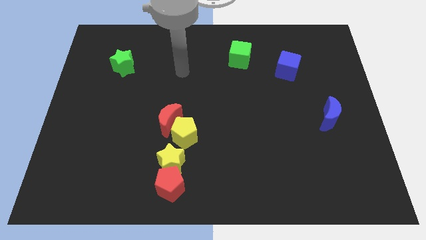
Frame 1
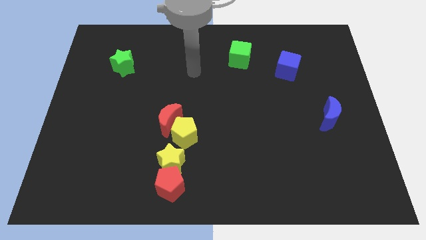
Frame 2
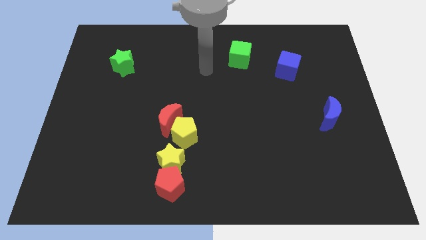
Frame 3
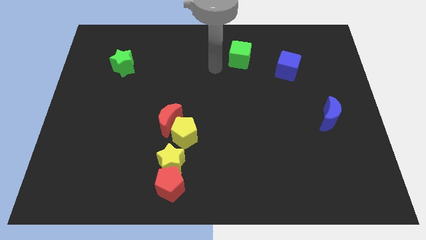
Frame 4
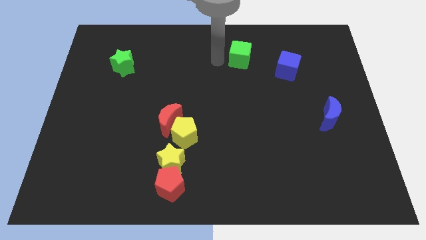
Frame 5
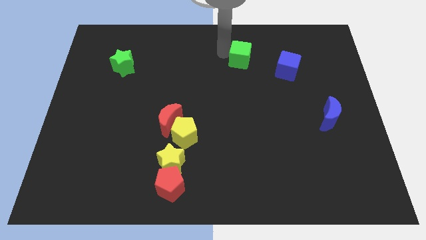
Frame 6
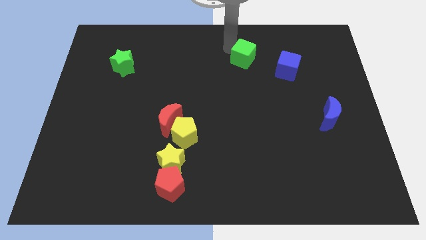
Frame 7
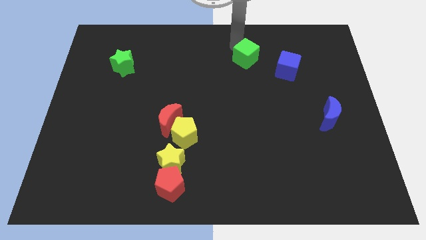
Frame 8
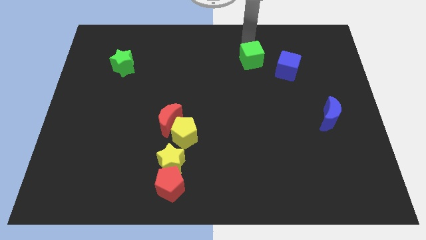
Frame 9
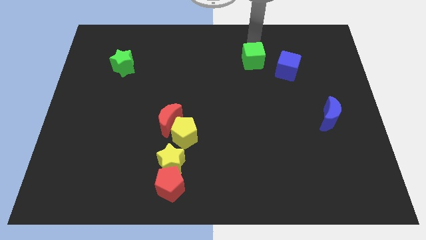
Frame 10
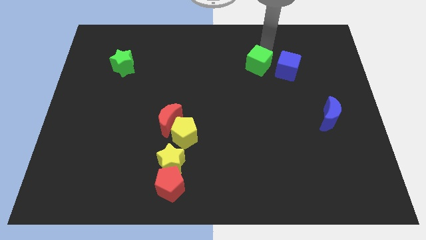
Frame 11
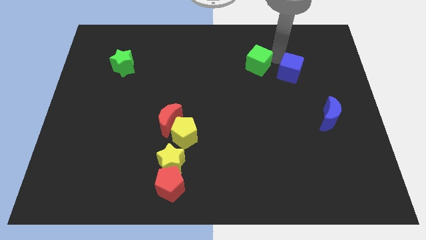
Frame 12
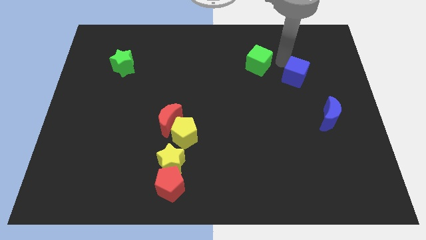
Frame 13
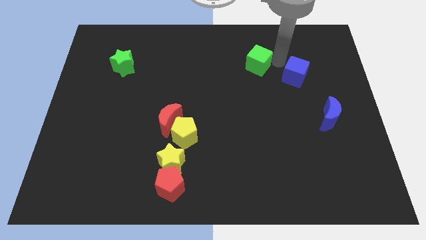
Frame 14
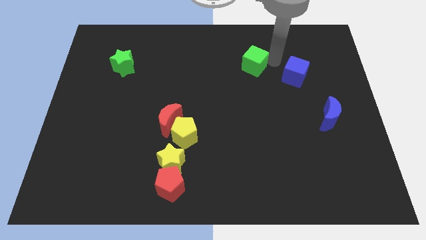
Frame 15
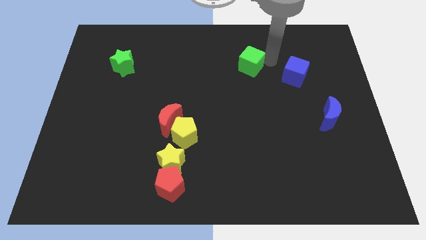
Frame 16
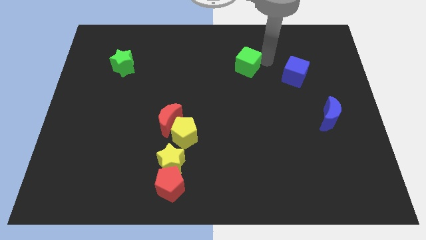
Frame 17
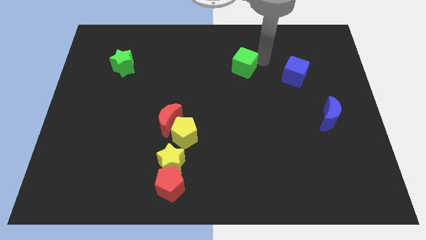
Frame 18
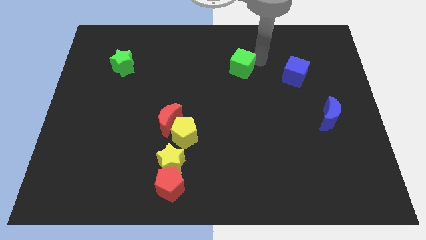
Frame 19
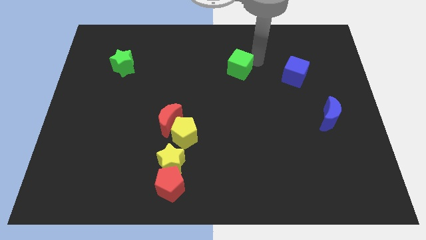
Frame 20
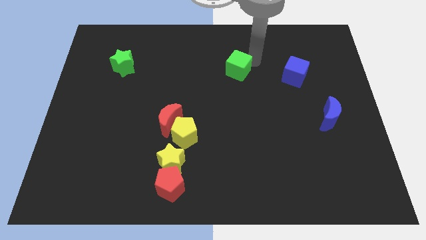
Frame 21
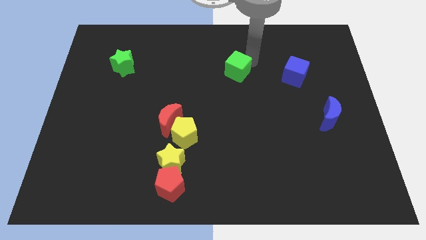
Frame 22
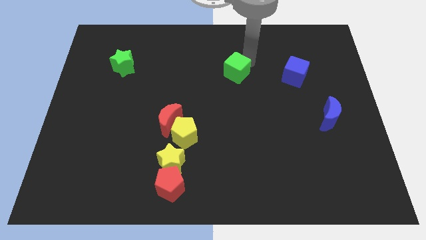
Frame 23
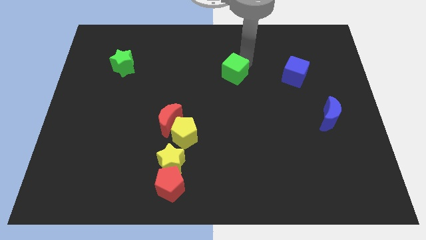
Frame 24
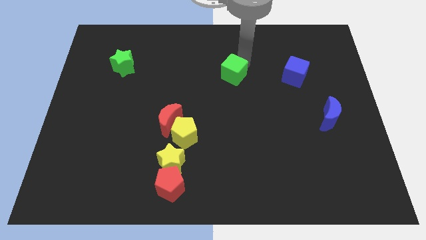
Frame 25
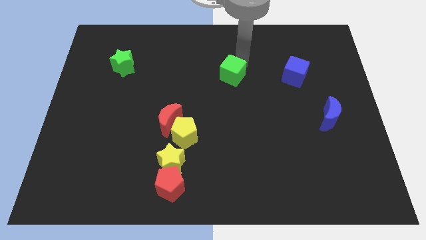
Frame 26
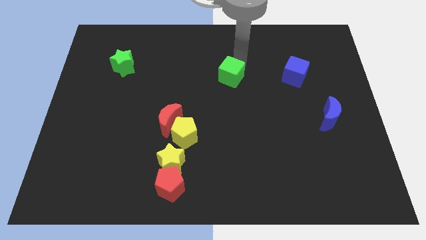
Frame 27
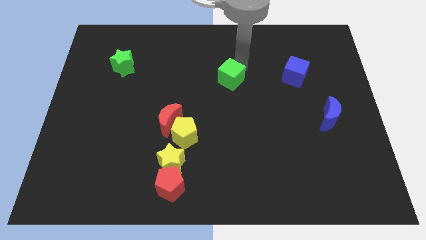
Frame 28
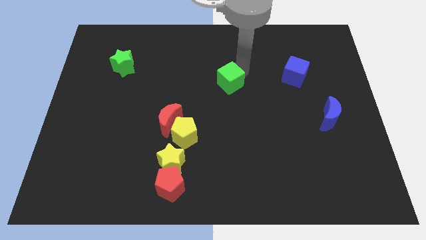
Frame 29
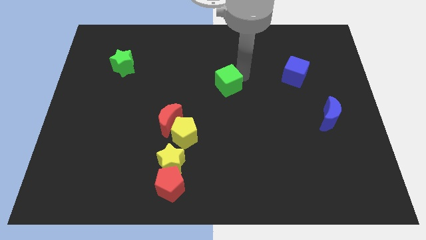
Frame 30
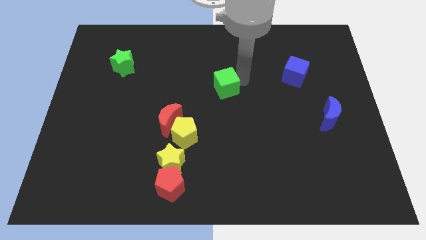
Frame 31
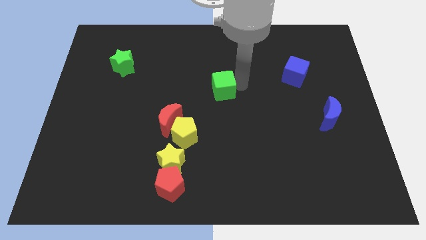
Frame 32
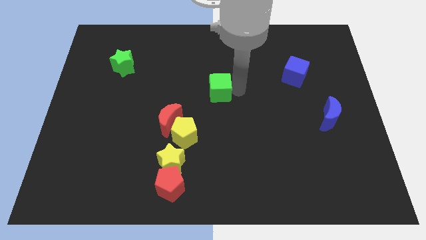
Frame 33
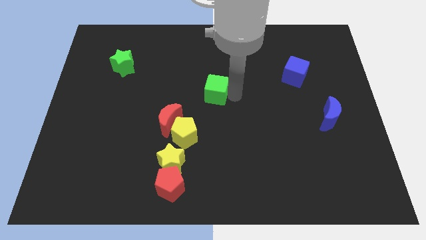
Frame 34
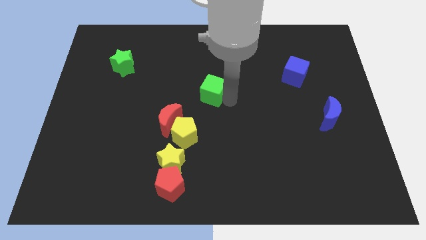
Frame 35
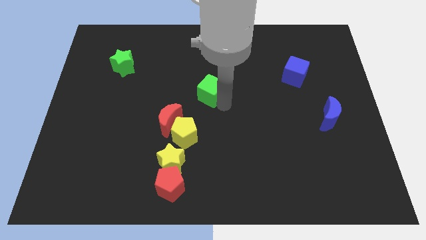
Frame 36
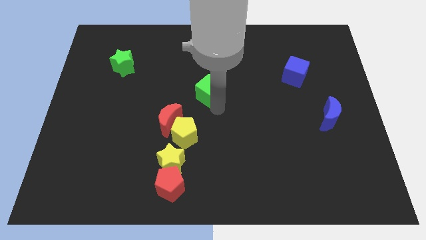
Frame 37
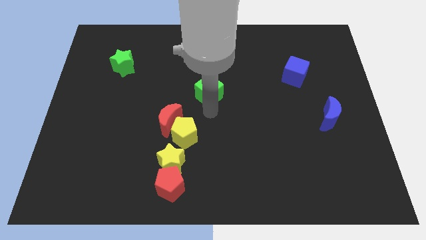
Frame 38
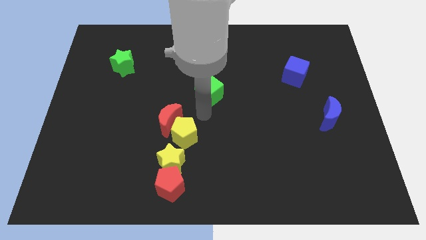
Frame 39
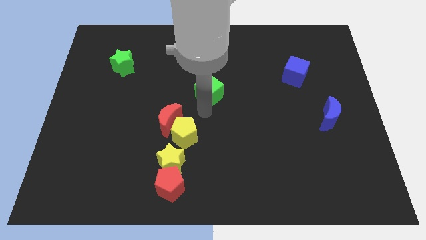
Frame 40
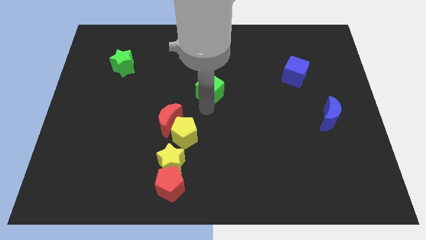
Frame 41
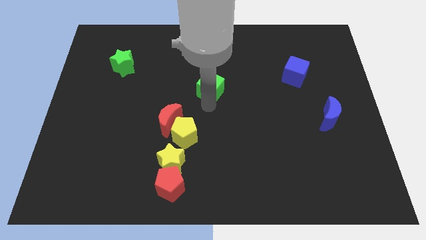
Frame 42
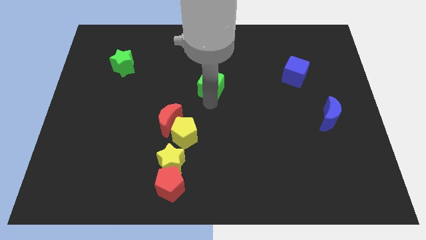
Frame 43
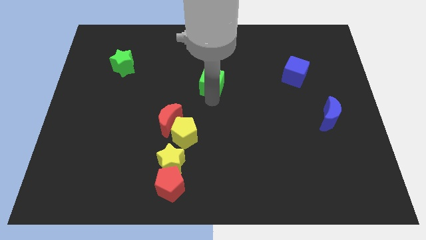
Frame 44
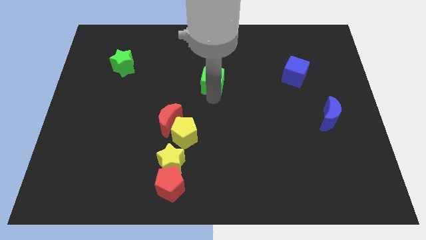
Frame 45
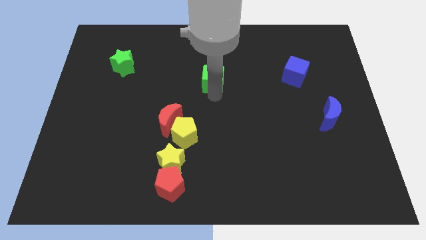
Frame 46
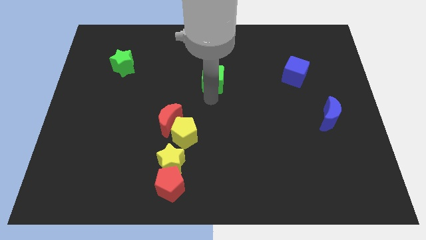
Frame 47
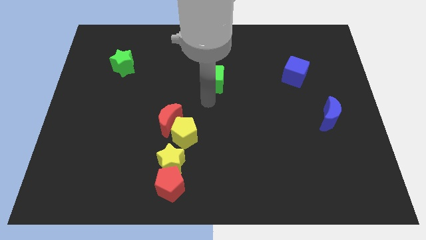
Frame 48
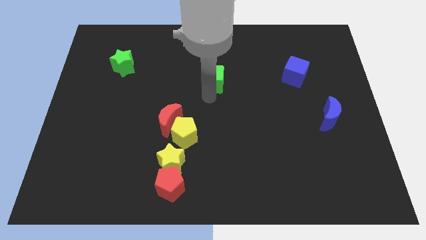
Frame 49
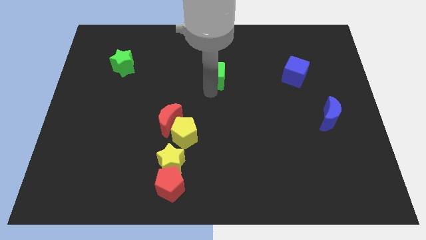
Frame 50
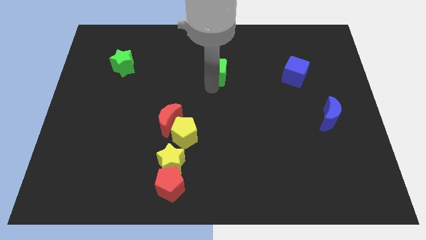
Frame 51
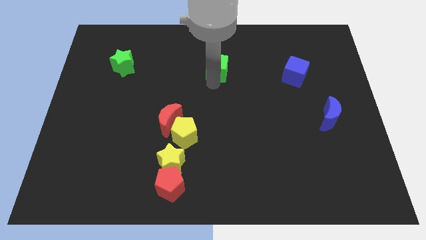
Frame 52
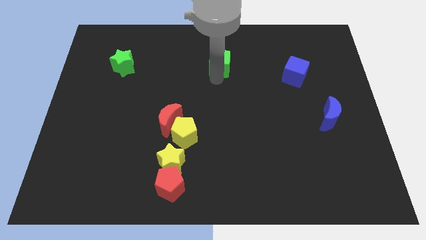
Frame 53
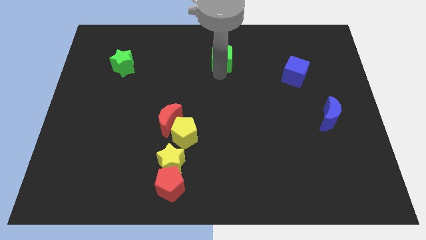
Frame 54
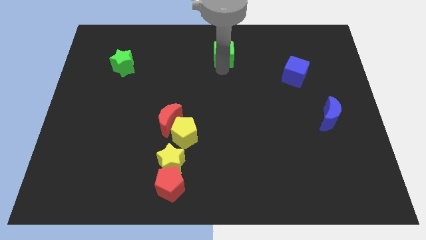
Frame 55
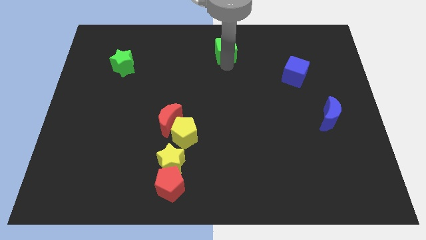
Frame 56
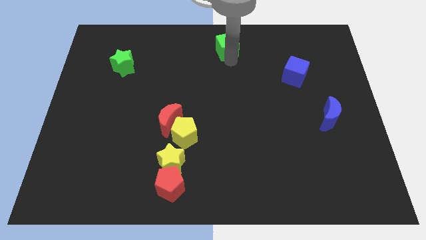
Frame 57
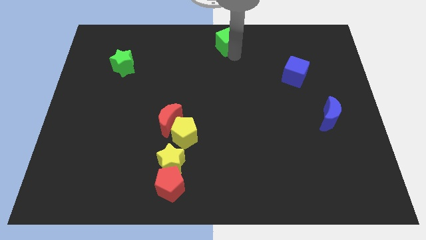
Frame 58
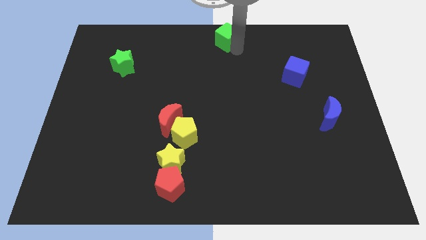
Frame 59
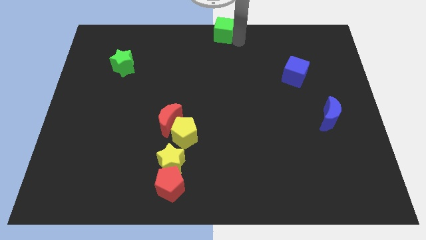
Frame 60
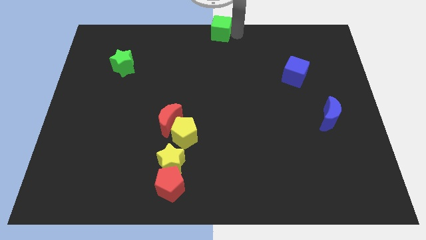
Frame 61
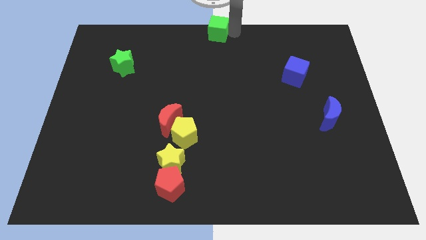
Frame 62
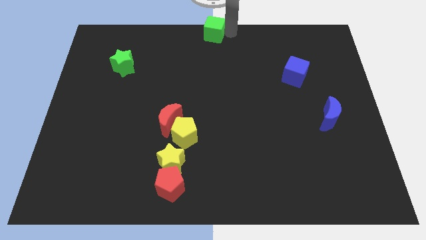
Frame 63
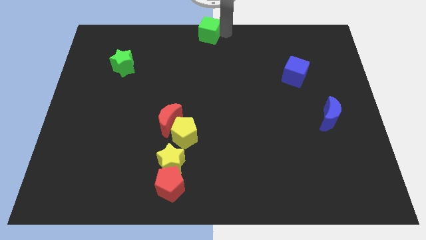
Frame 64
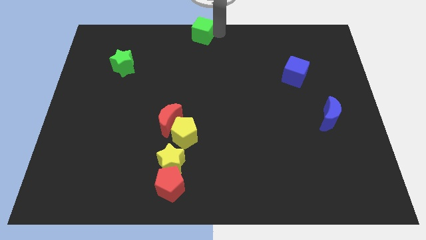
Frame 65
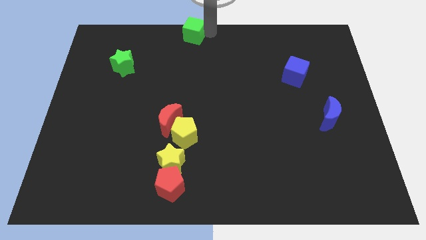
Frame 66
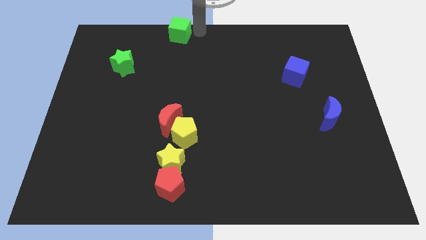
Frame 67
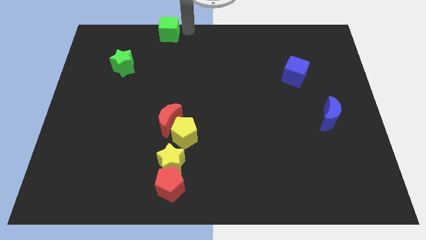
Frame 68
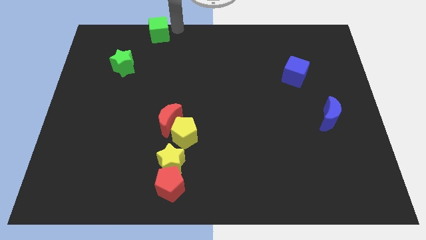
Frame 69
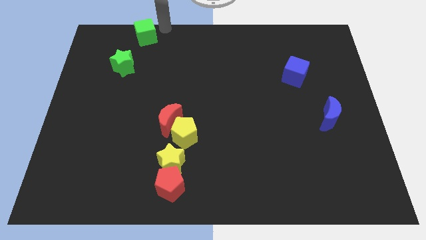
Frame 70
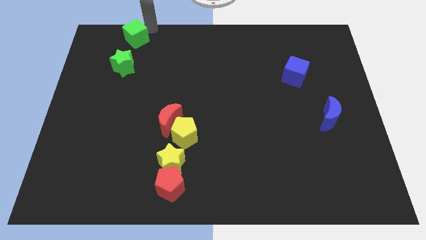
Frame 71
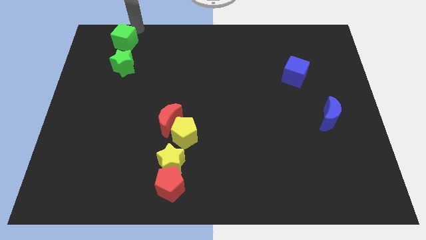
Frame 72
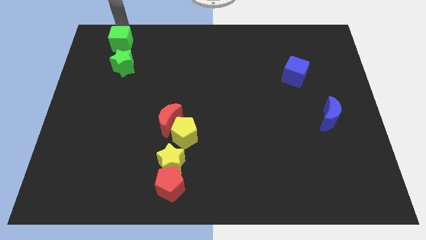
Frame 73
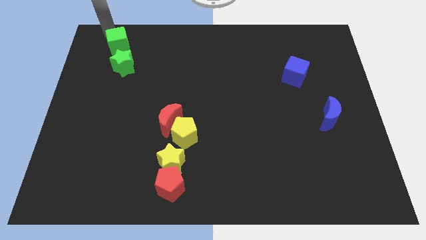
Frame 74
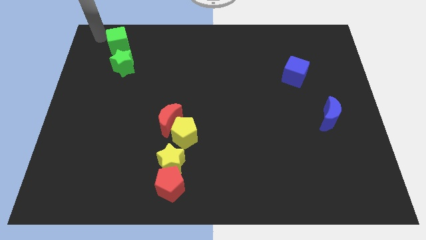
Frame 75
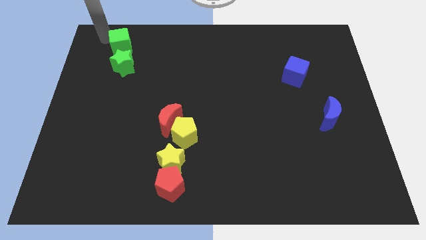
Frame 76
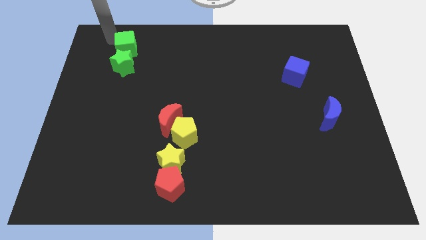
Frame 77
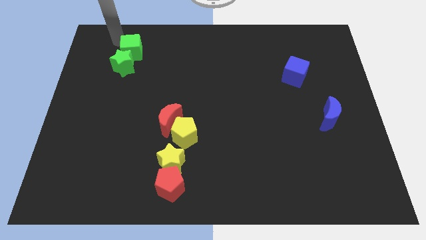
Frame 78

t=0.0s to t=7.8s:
move the green cube towards the green star
